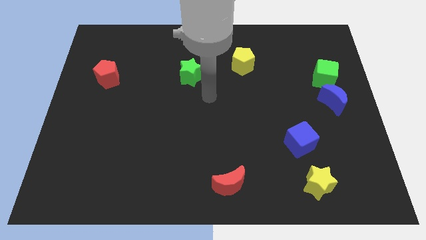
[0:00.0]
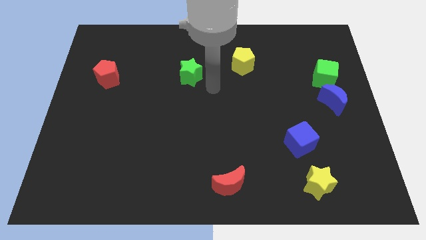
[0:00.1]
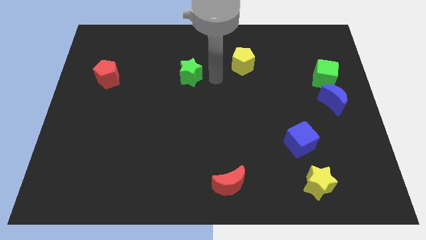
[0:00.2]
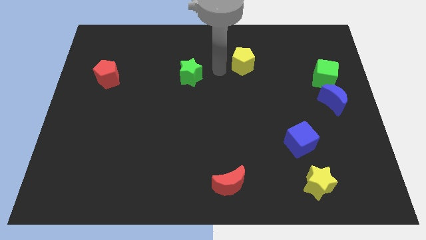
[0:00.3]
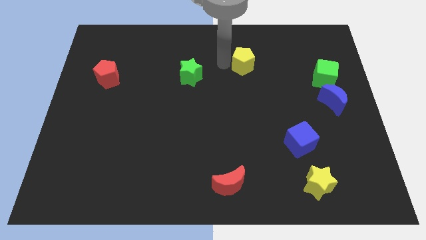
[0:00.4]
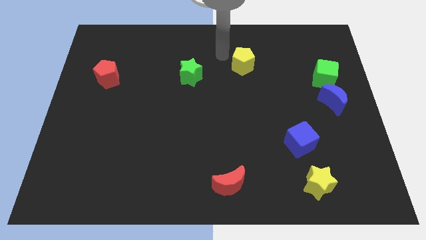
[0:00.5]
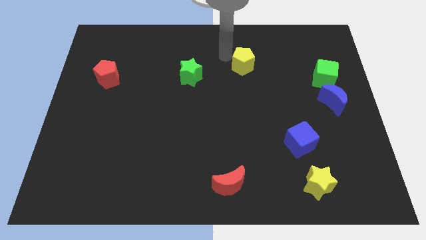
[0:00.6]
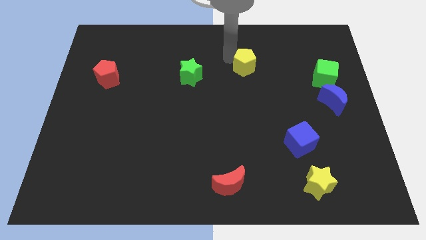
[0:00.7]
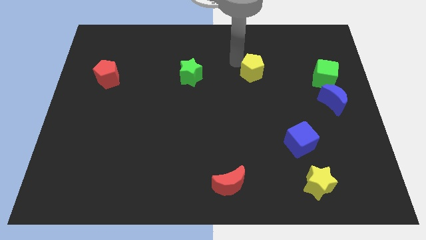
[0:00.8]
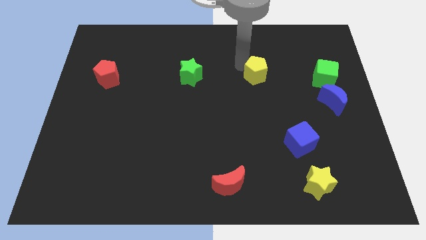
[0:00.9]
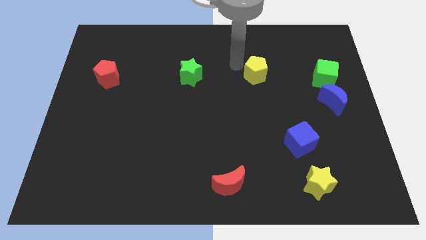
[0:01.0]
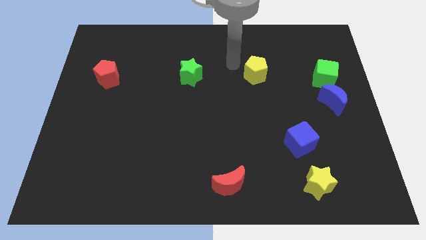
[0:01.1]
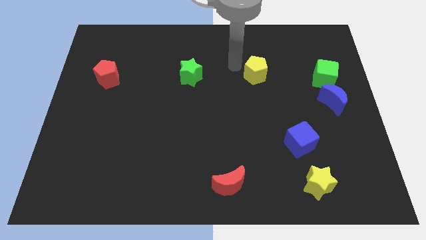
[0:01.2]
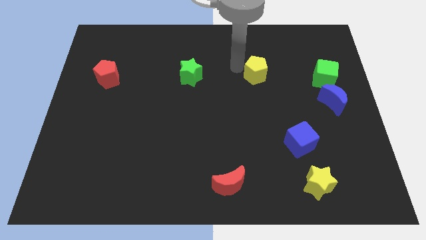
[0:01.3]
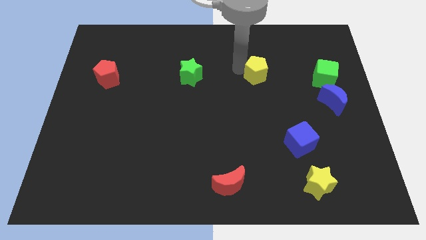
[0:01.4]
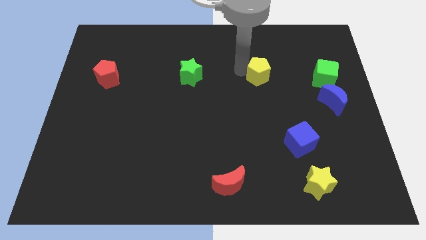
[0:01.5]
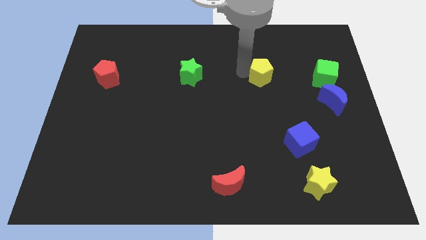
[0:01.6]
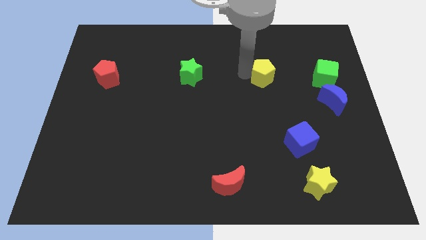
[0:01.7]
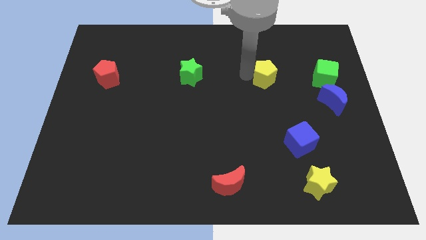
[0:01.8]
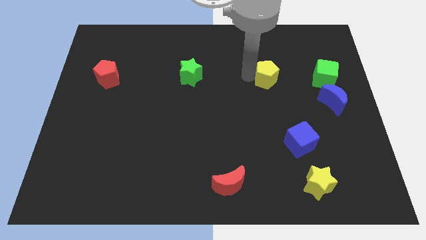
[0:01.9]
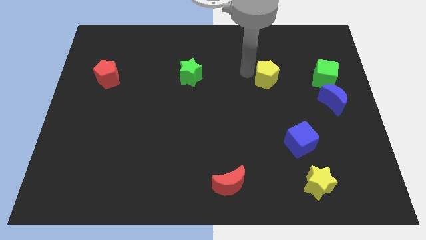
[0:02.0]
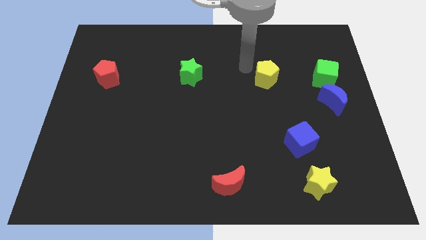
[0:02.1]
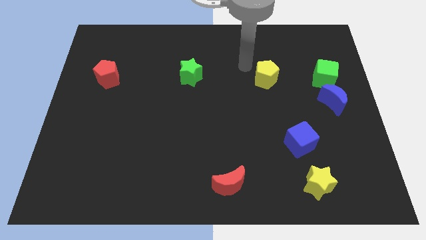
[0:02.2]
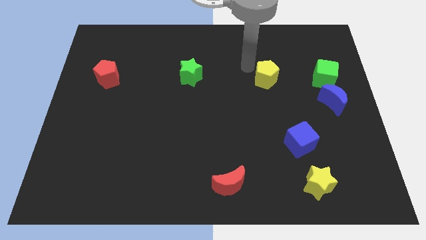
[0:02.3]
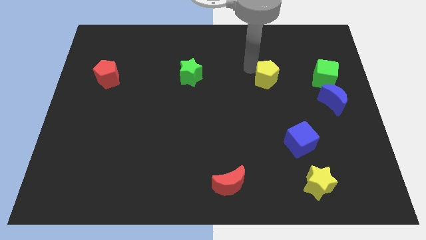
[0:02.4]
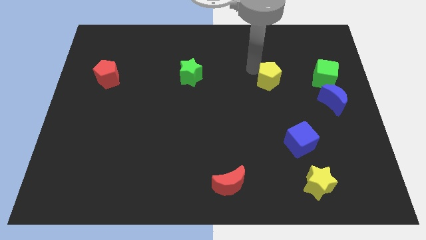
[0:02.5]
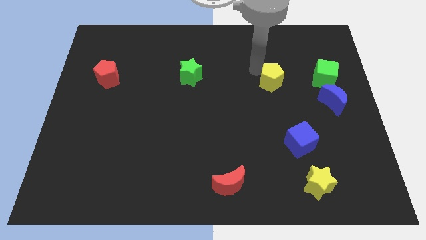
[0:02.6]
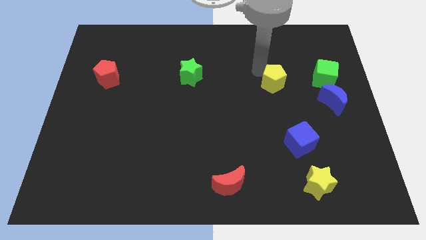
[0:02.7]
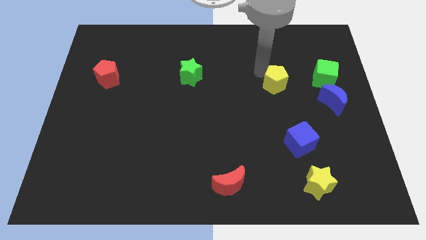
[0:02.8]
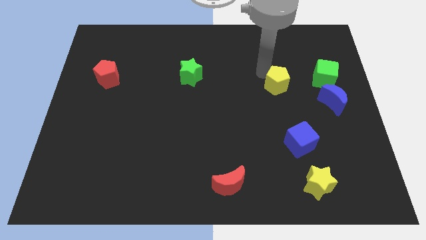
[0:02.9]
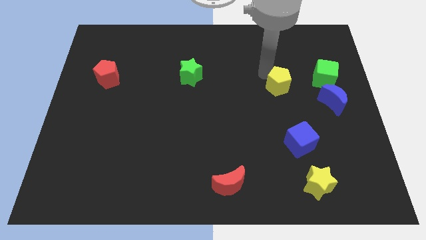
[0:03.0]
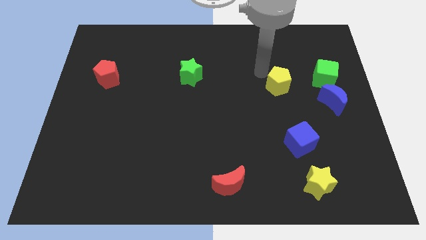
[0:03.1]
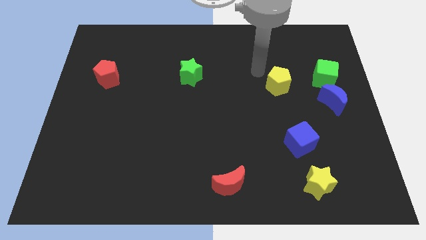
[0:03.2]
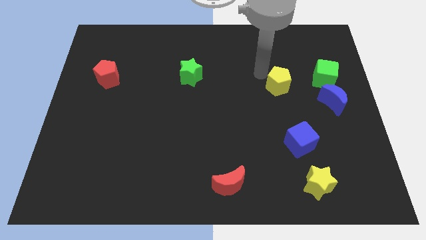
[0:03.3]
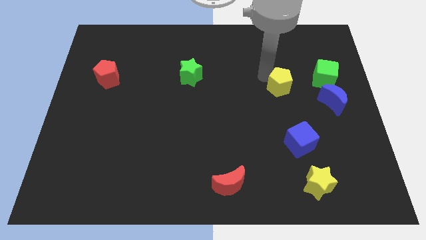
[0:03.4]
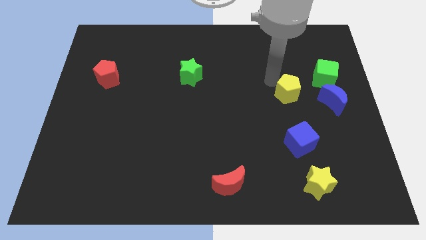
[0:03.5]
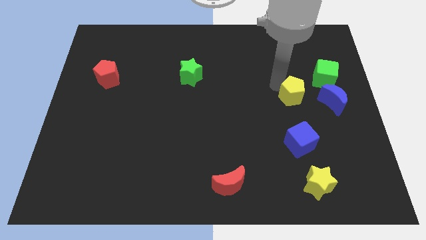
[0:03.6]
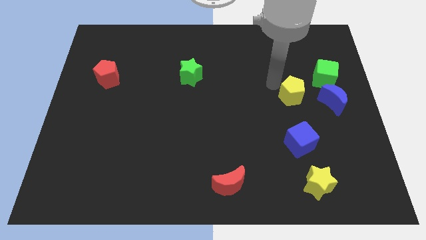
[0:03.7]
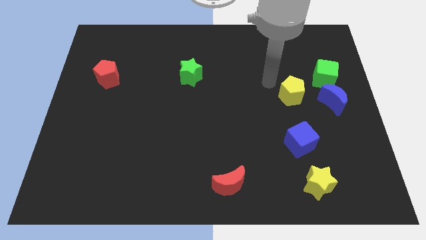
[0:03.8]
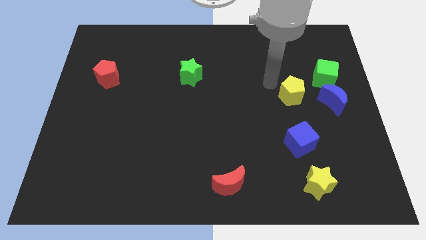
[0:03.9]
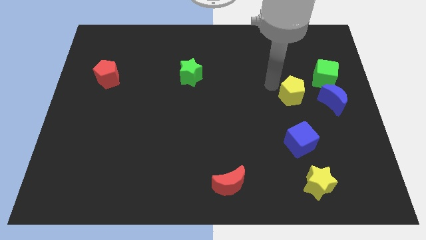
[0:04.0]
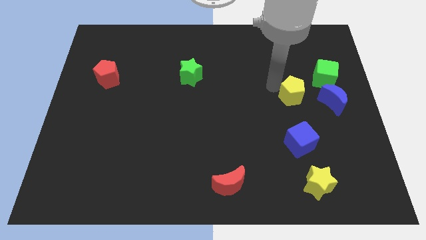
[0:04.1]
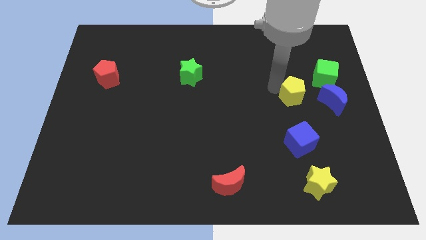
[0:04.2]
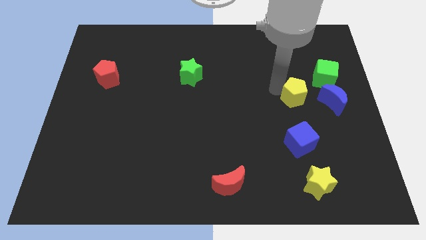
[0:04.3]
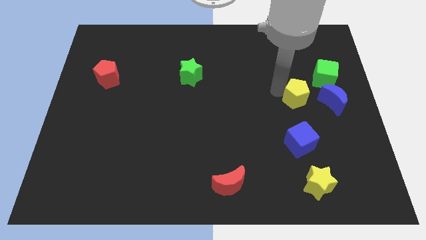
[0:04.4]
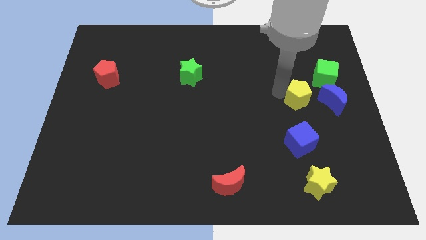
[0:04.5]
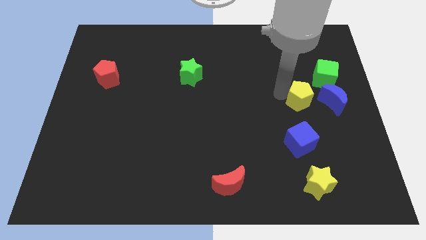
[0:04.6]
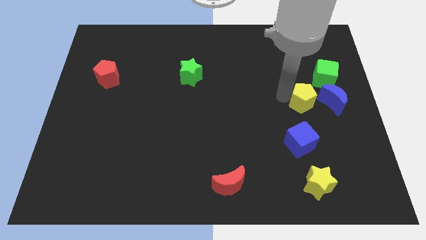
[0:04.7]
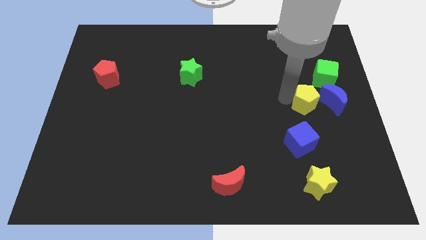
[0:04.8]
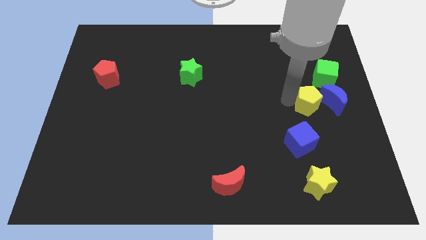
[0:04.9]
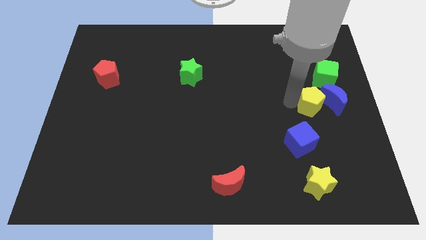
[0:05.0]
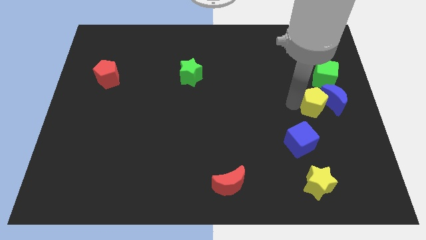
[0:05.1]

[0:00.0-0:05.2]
slide the yellow pentagon to the bottom side of the green cube

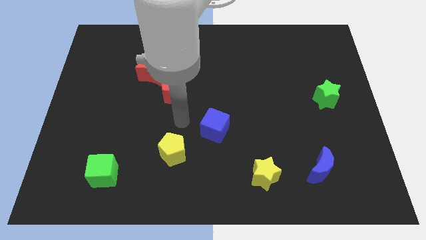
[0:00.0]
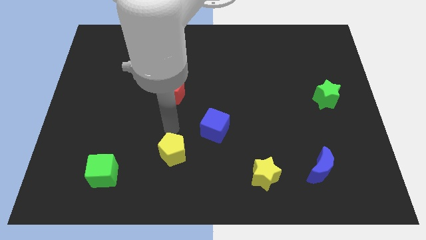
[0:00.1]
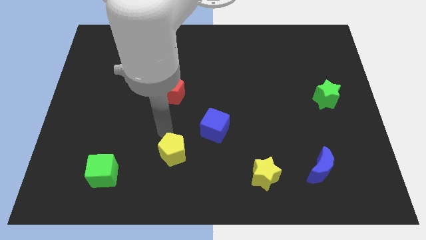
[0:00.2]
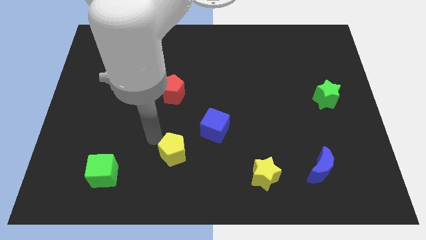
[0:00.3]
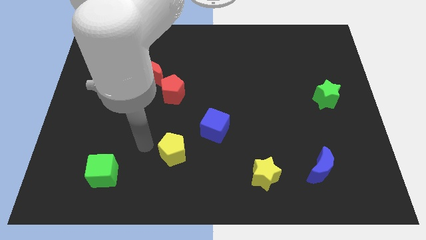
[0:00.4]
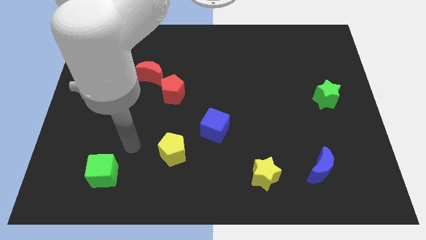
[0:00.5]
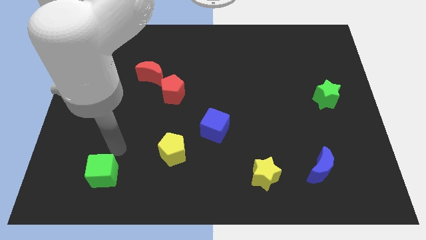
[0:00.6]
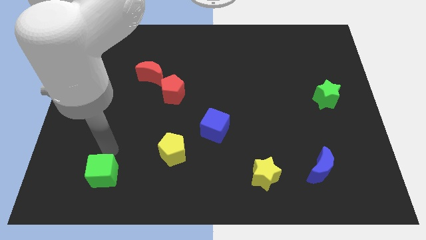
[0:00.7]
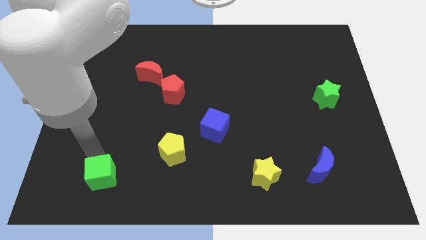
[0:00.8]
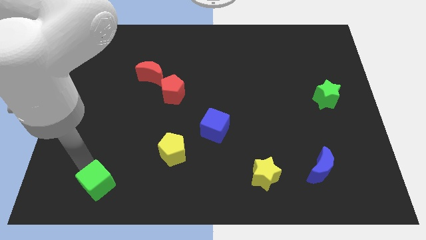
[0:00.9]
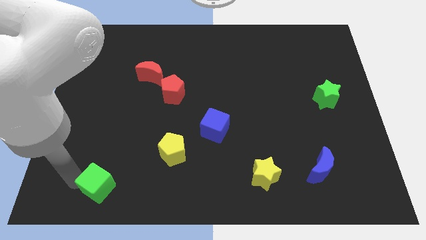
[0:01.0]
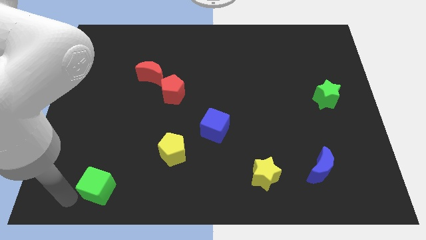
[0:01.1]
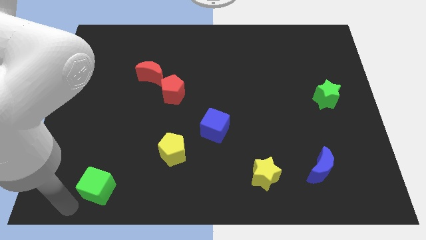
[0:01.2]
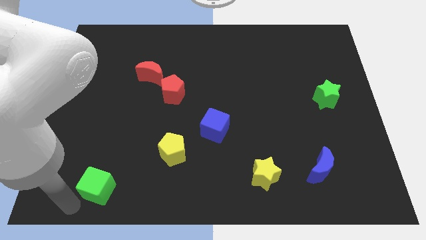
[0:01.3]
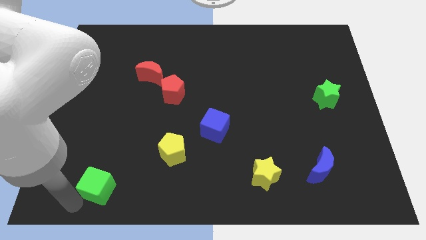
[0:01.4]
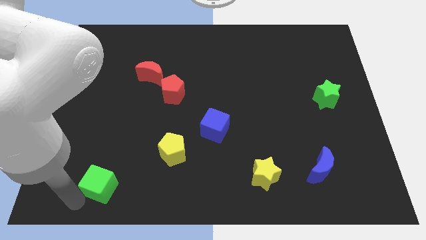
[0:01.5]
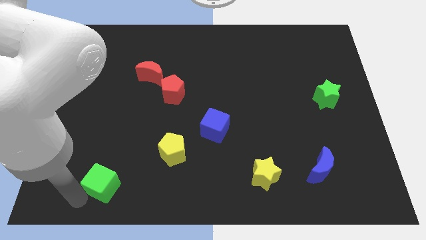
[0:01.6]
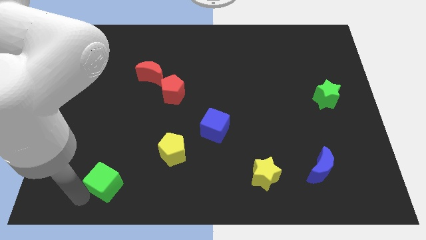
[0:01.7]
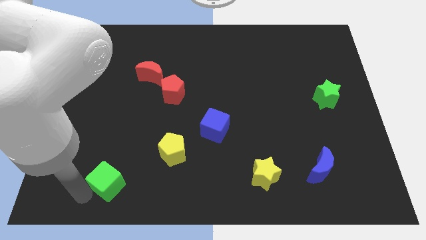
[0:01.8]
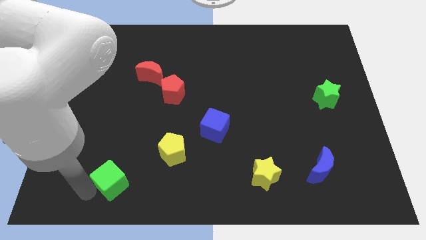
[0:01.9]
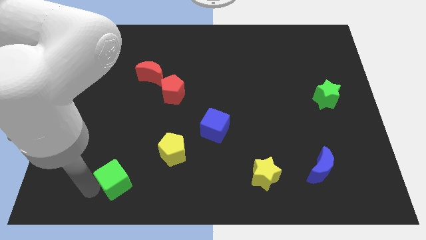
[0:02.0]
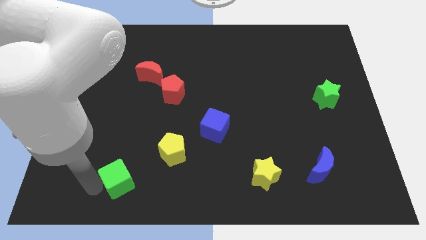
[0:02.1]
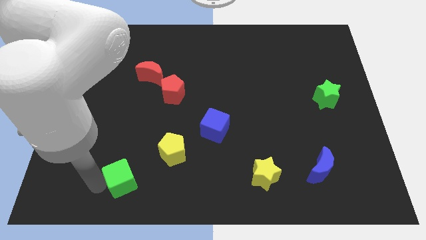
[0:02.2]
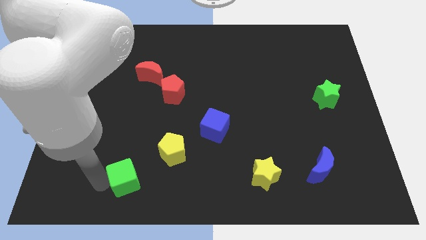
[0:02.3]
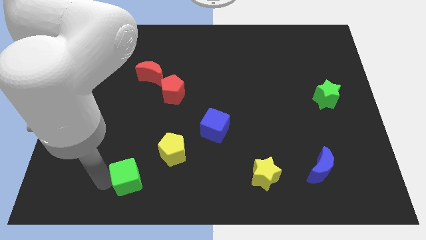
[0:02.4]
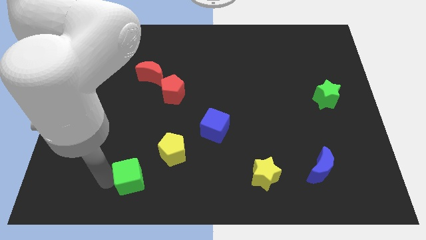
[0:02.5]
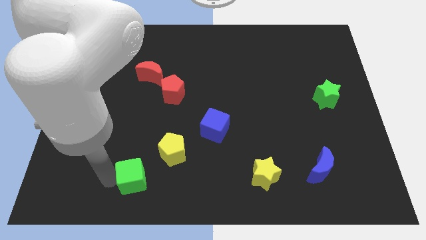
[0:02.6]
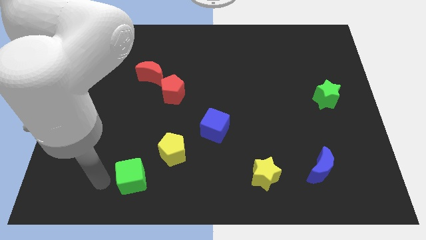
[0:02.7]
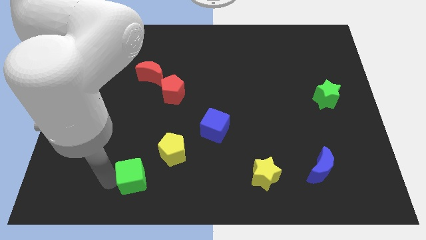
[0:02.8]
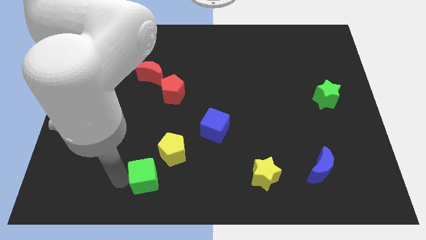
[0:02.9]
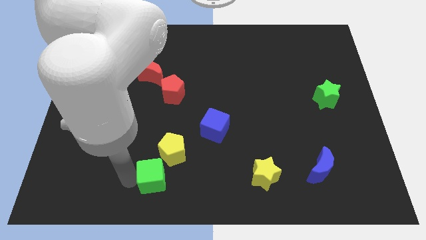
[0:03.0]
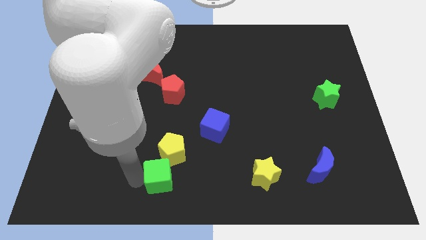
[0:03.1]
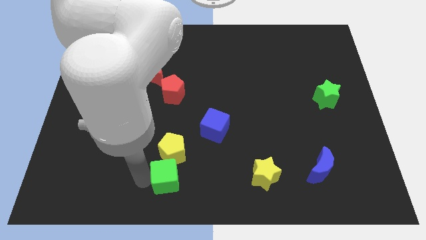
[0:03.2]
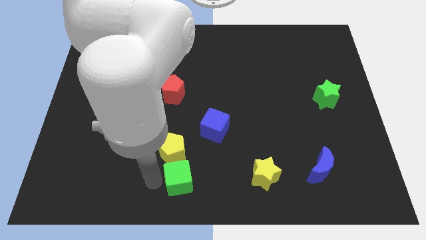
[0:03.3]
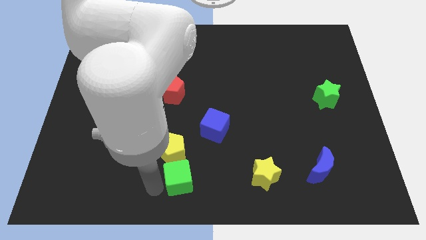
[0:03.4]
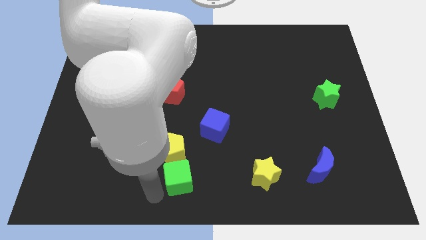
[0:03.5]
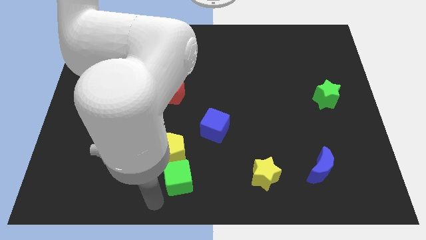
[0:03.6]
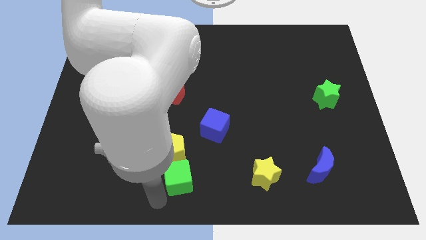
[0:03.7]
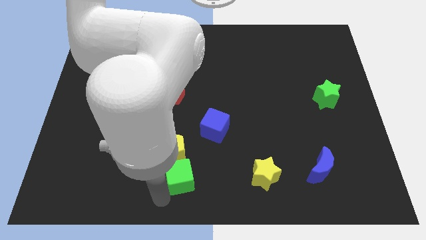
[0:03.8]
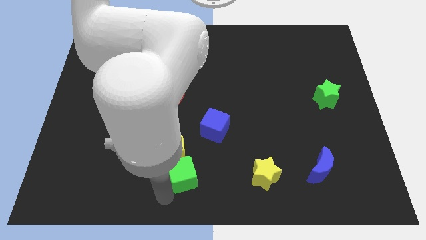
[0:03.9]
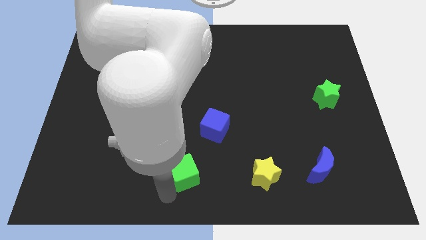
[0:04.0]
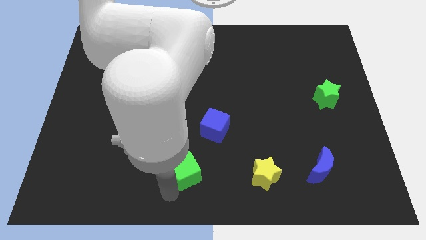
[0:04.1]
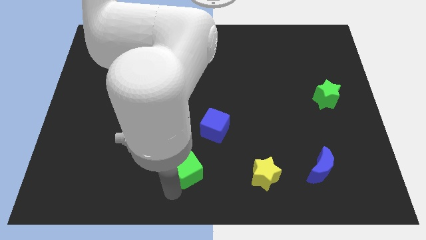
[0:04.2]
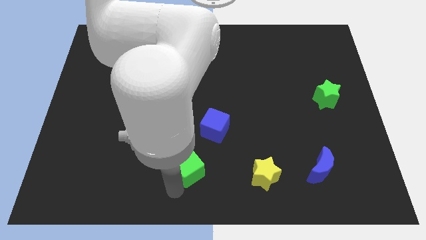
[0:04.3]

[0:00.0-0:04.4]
push the green cube to the bottom left side of the blue cube
